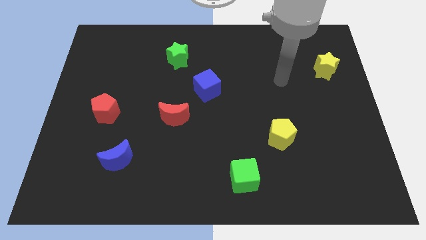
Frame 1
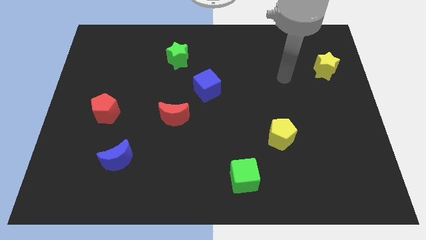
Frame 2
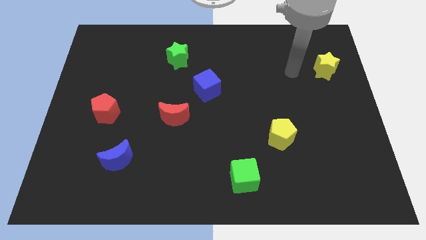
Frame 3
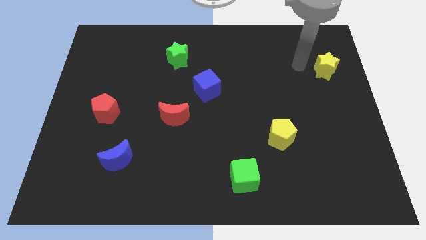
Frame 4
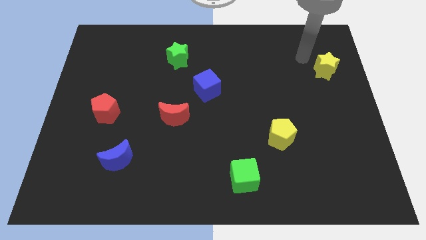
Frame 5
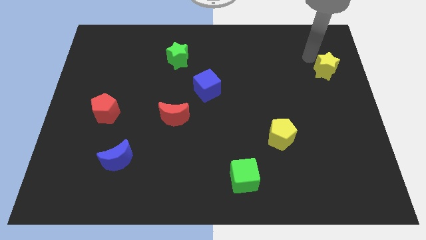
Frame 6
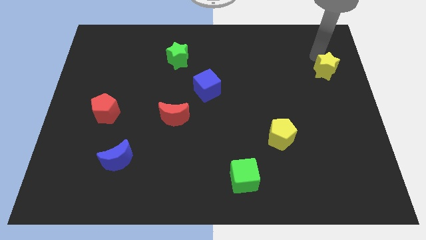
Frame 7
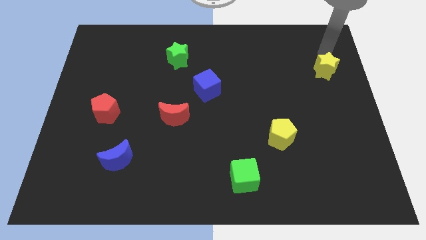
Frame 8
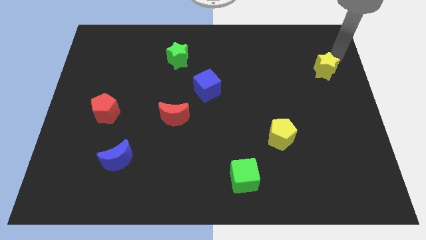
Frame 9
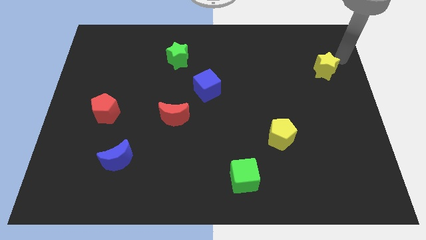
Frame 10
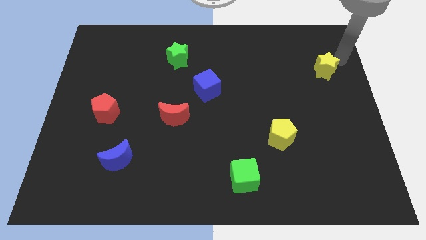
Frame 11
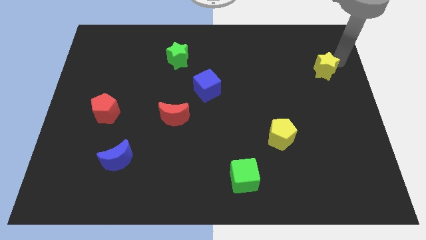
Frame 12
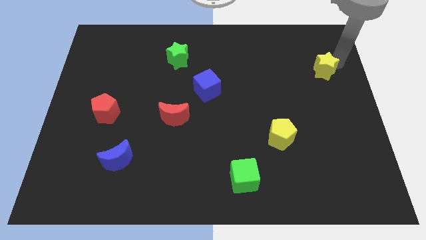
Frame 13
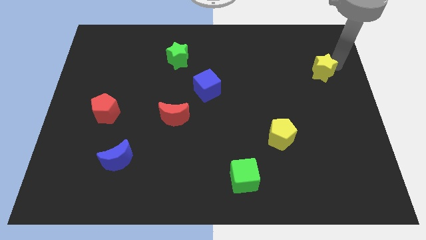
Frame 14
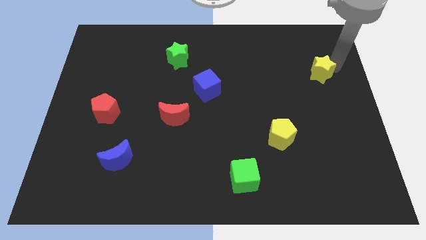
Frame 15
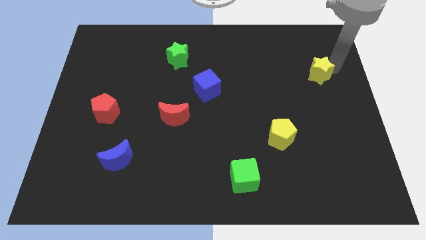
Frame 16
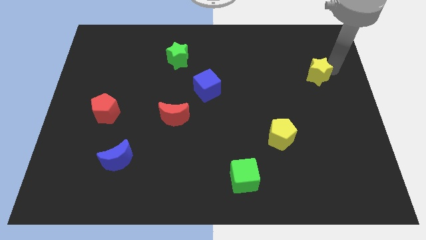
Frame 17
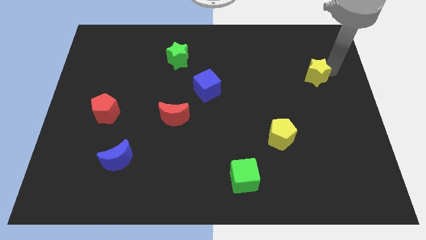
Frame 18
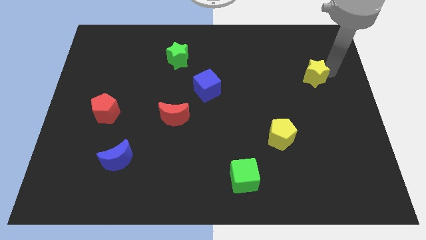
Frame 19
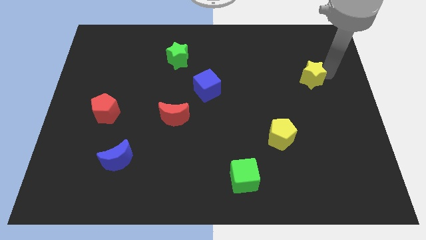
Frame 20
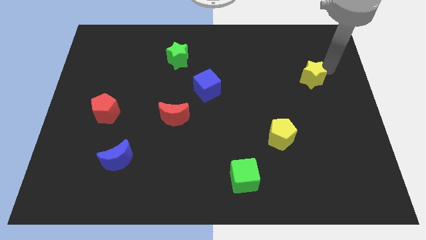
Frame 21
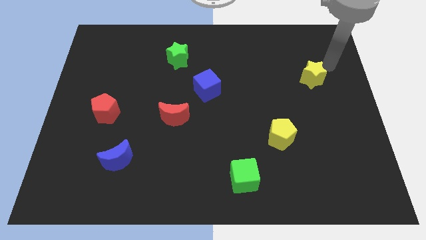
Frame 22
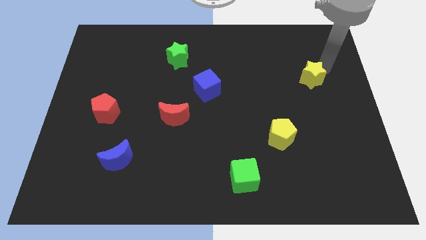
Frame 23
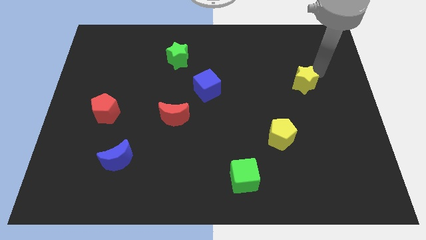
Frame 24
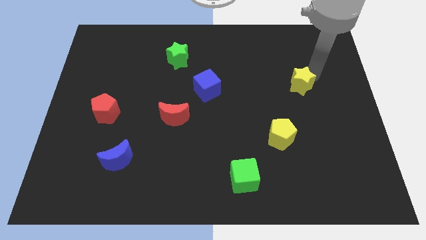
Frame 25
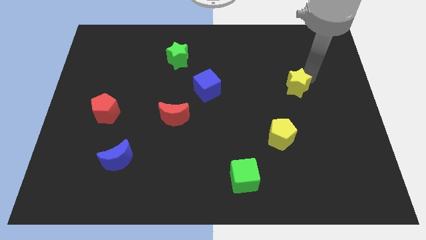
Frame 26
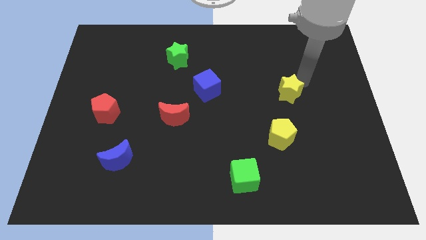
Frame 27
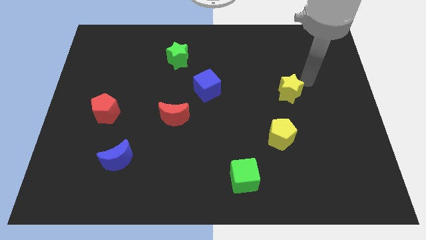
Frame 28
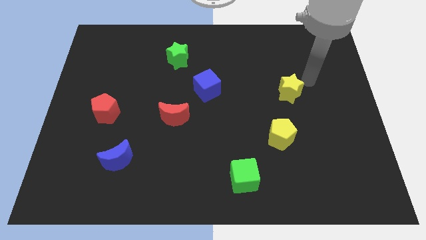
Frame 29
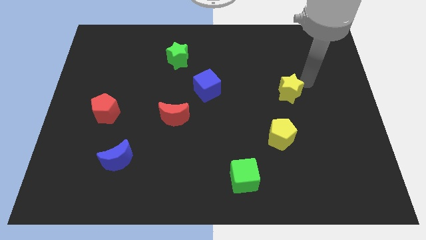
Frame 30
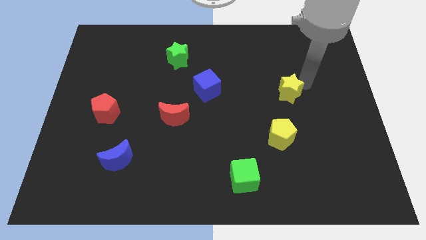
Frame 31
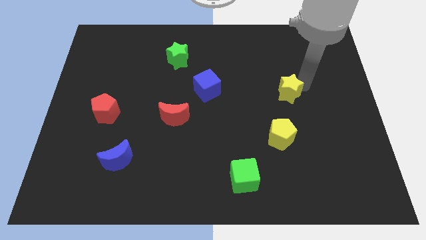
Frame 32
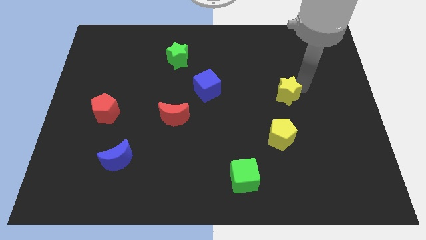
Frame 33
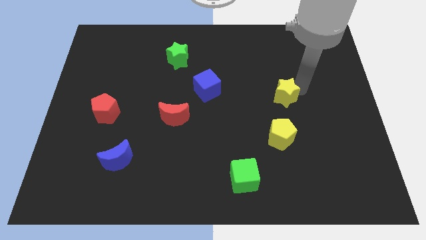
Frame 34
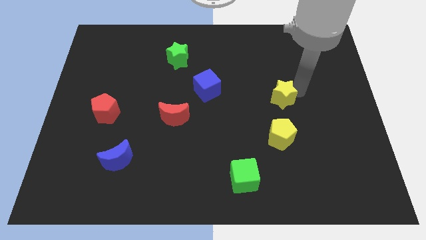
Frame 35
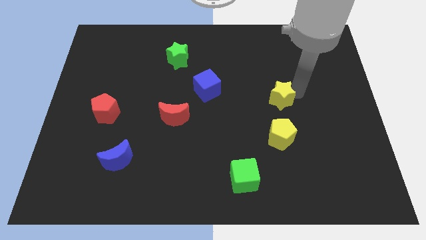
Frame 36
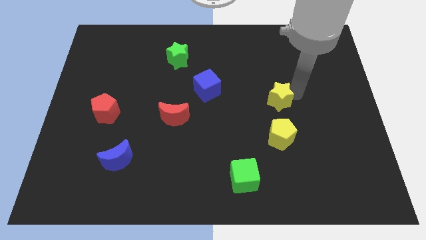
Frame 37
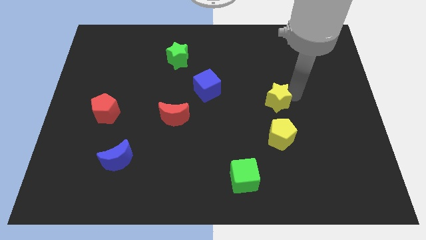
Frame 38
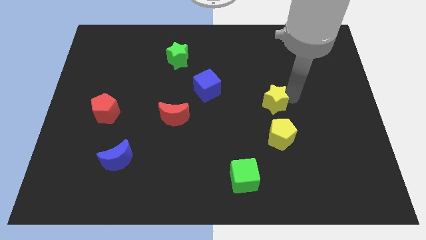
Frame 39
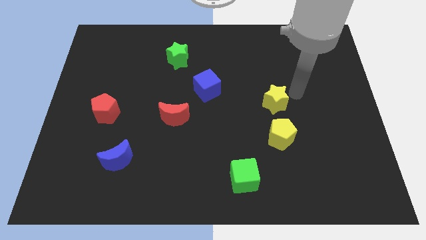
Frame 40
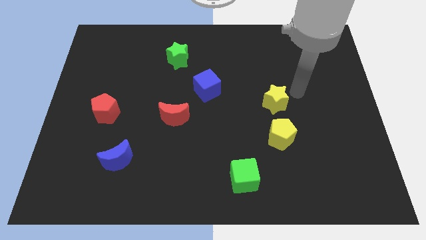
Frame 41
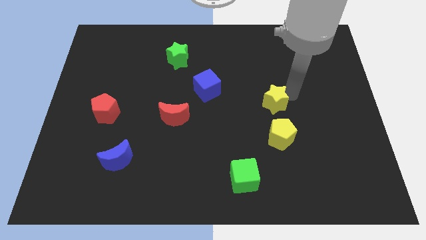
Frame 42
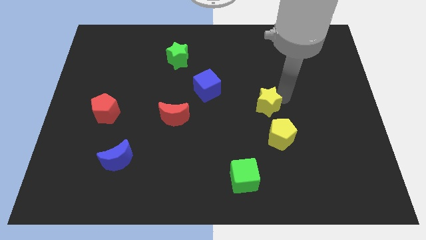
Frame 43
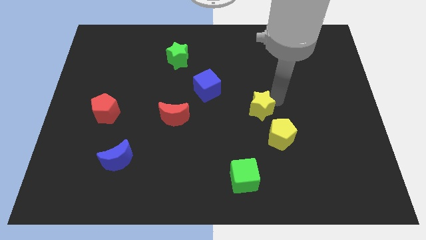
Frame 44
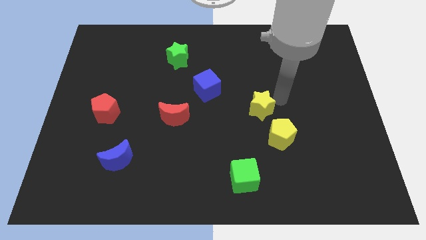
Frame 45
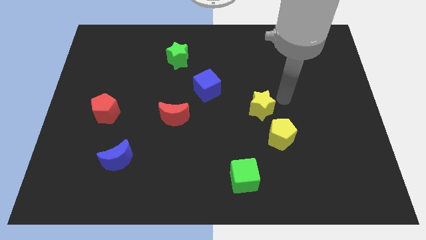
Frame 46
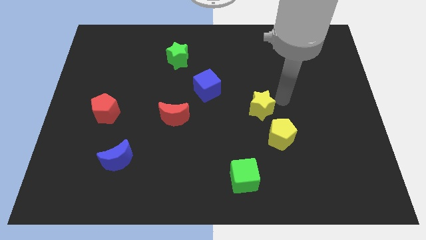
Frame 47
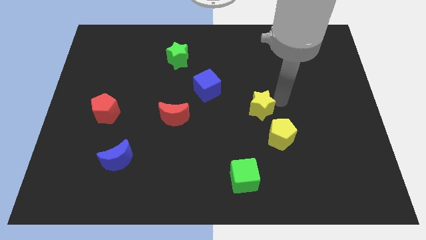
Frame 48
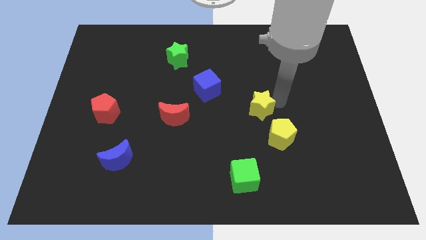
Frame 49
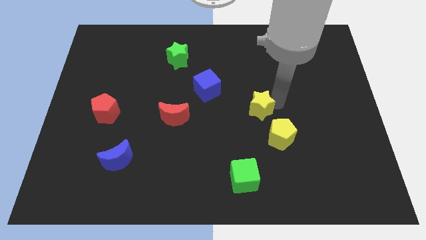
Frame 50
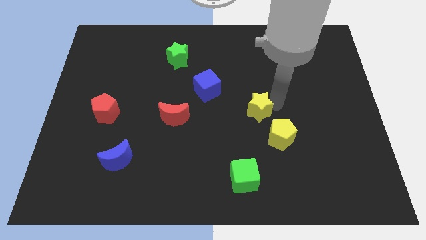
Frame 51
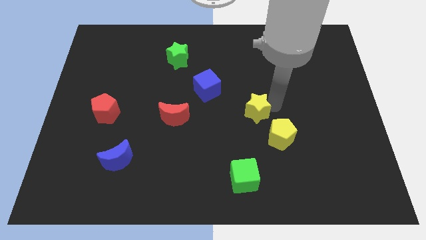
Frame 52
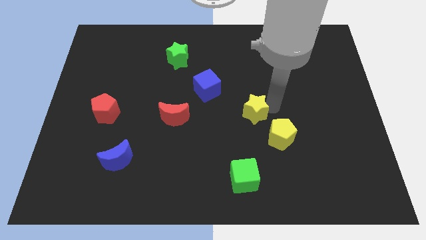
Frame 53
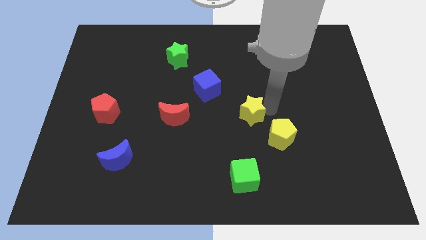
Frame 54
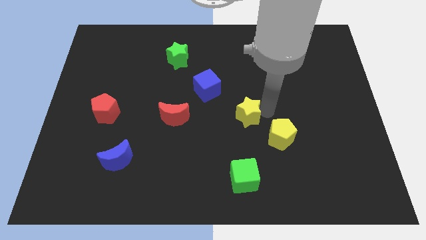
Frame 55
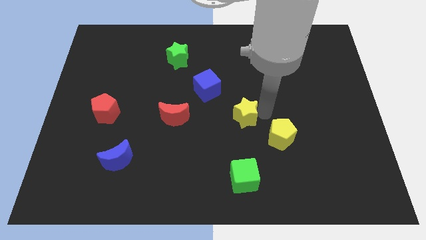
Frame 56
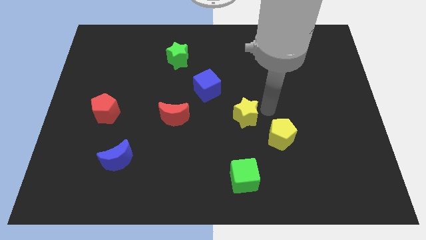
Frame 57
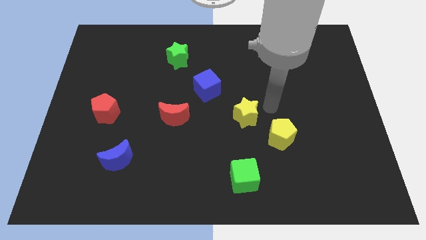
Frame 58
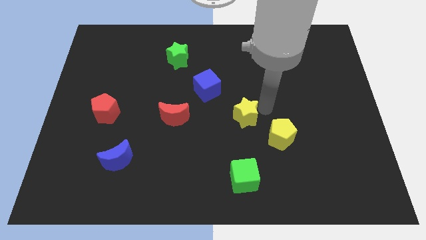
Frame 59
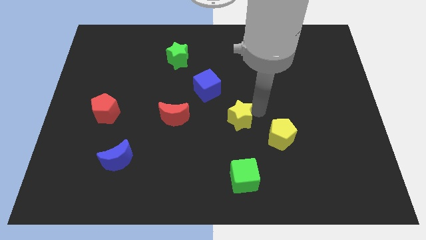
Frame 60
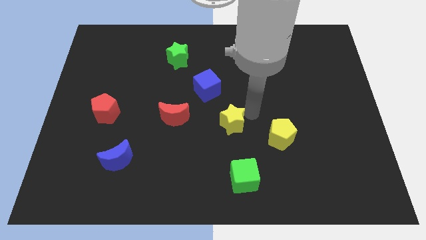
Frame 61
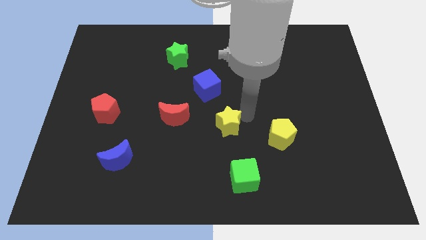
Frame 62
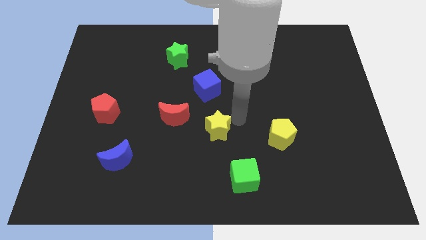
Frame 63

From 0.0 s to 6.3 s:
move the yellow star to the bottom right of the red moon
